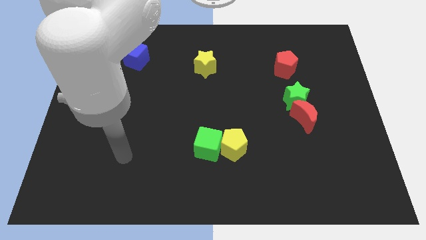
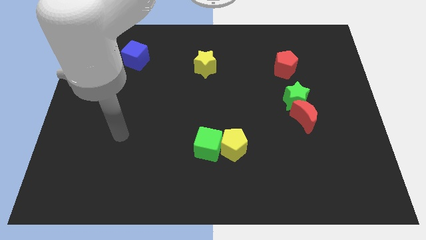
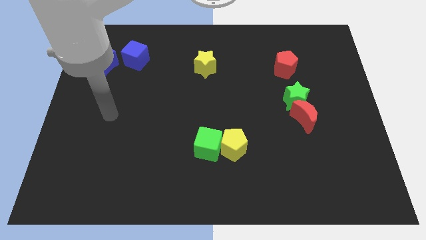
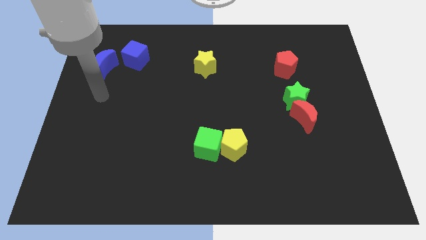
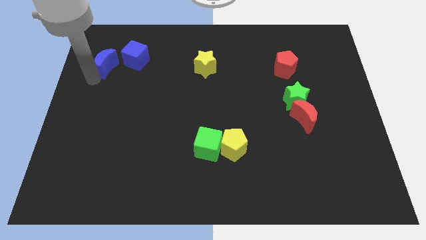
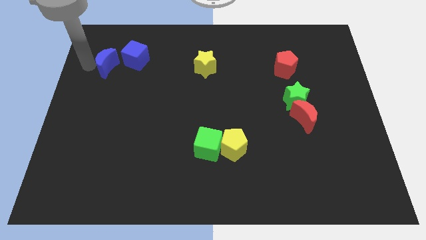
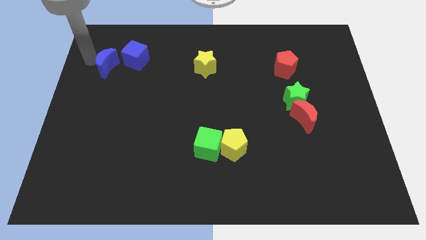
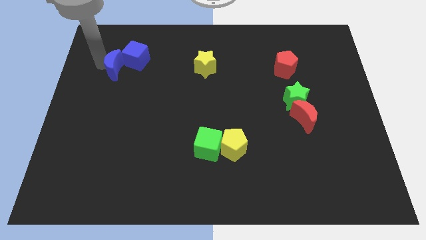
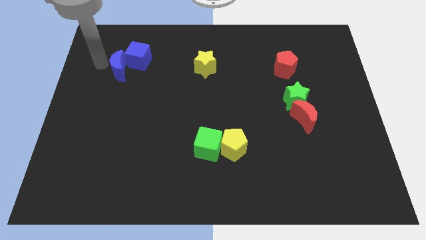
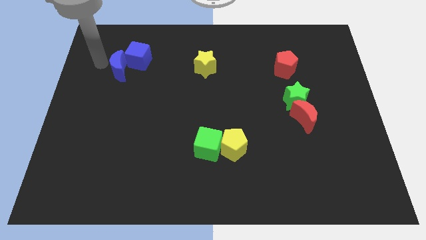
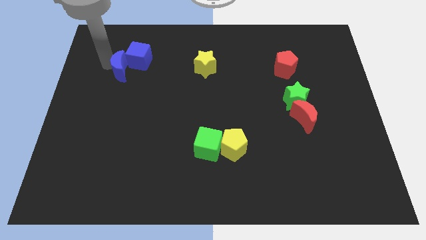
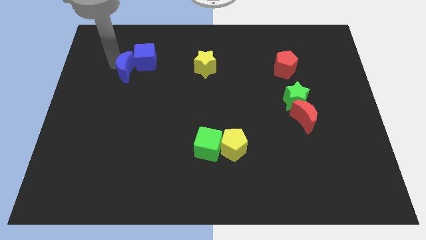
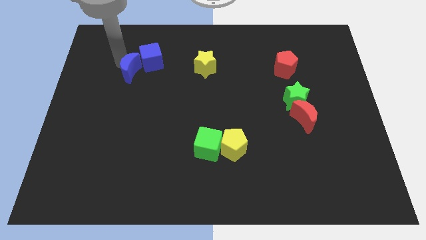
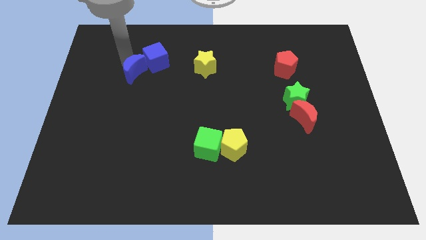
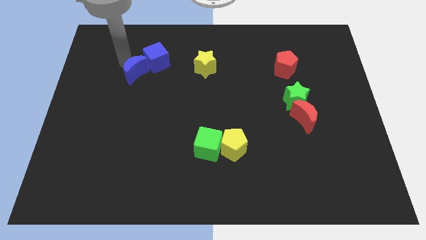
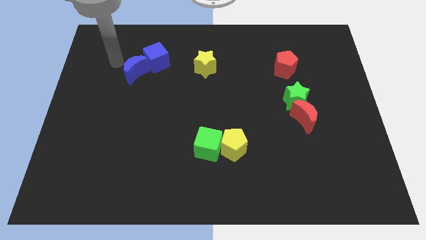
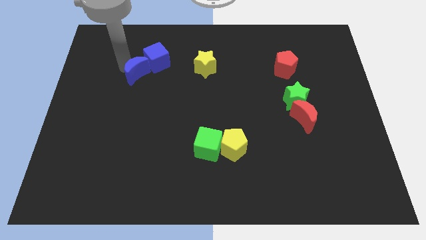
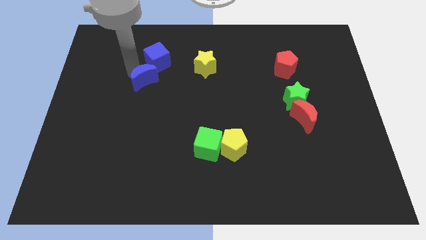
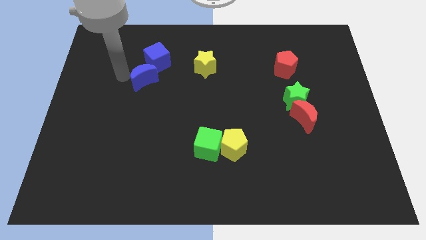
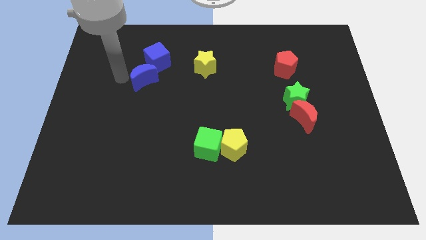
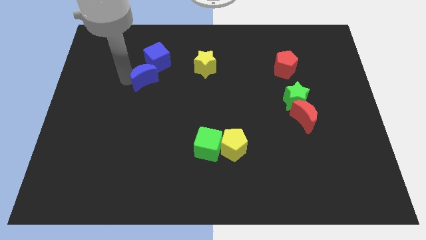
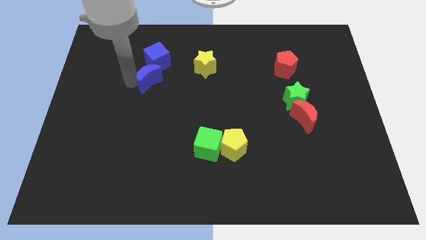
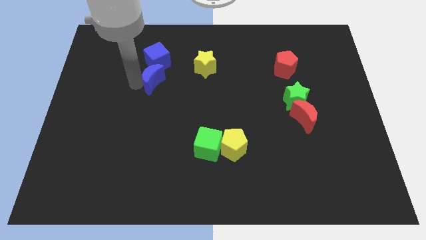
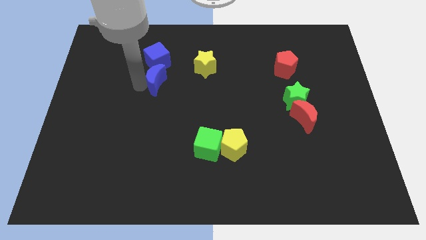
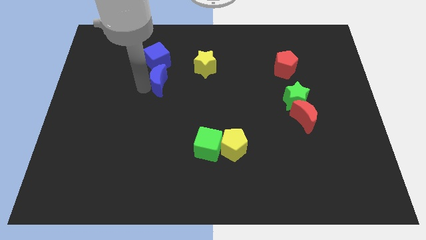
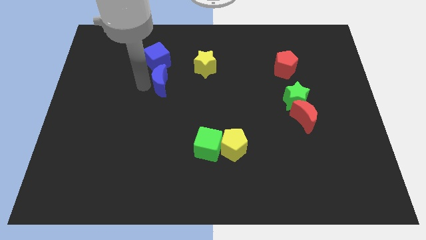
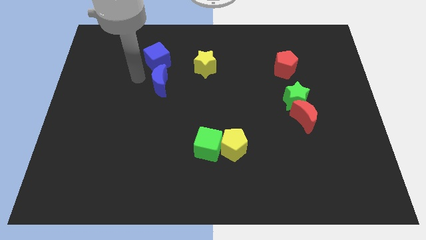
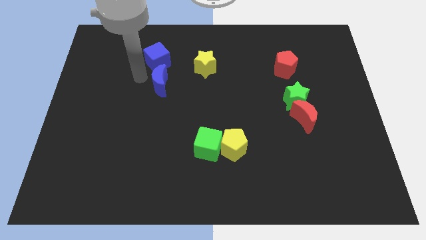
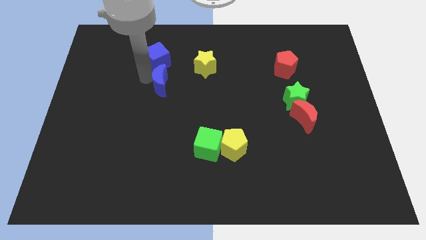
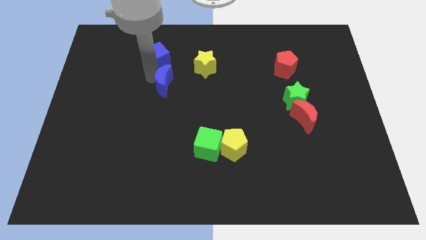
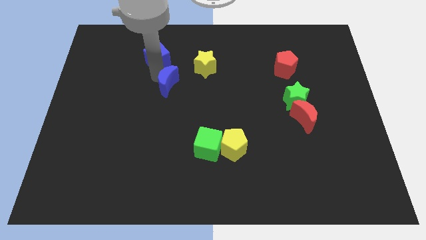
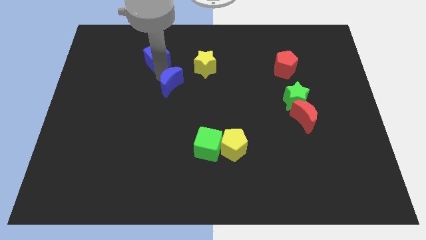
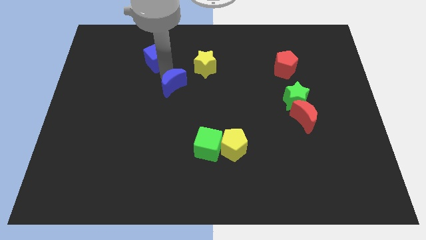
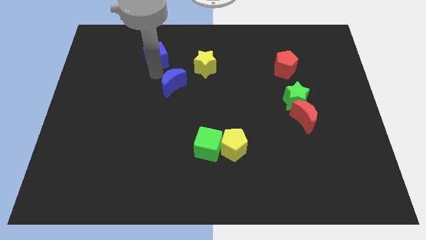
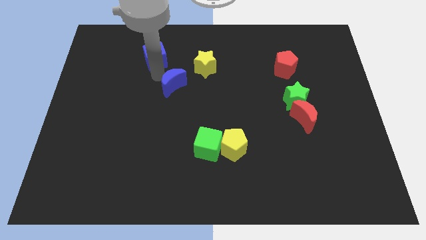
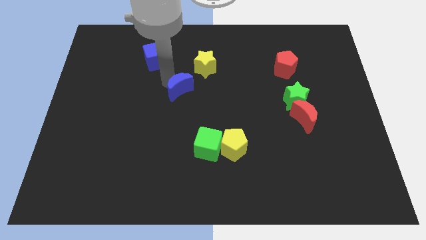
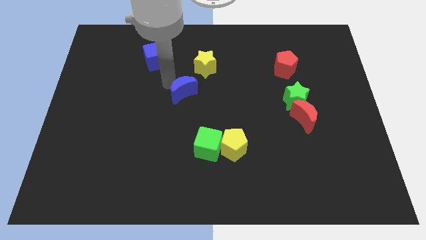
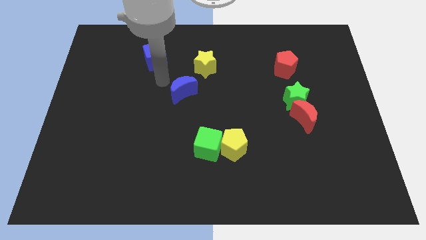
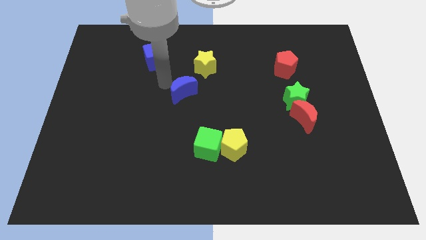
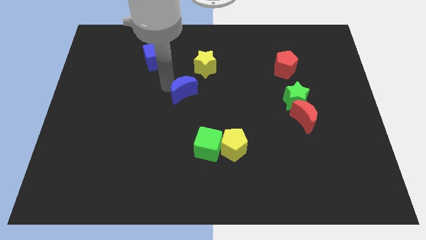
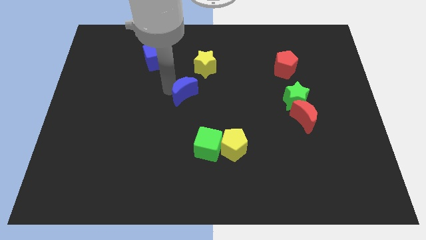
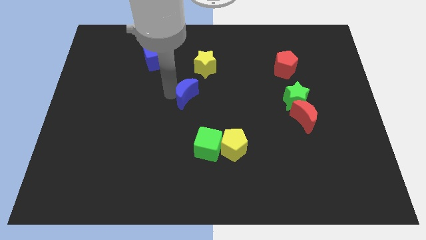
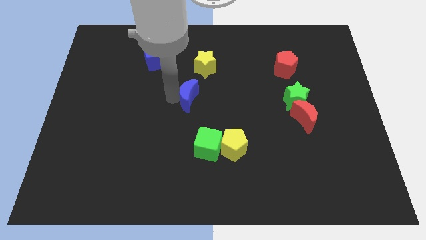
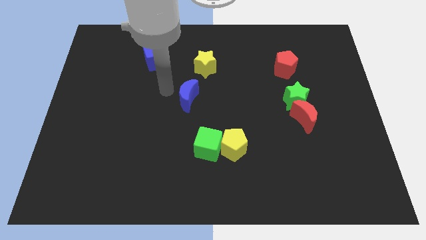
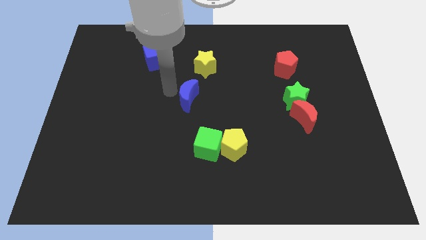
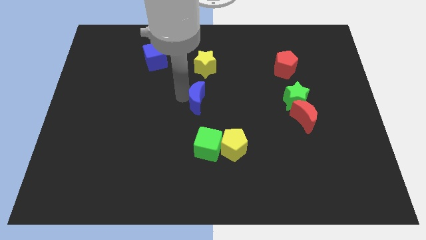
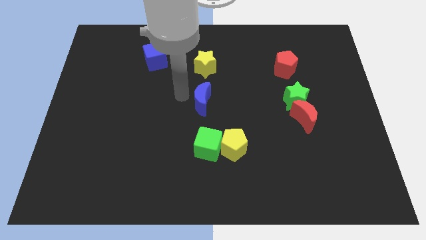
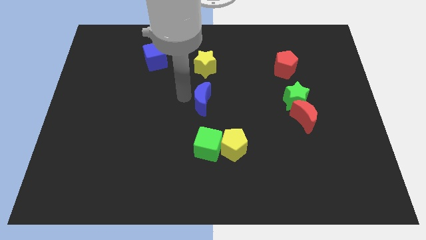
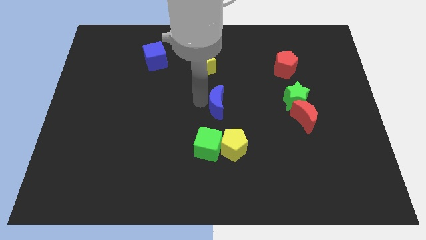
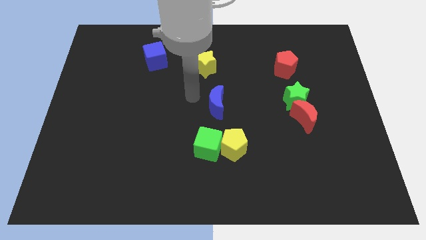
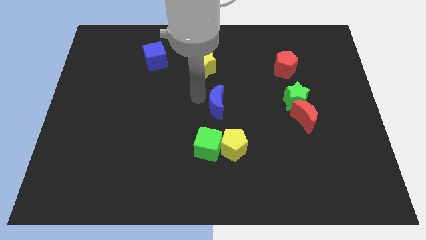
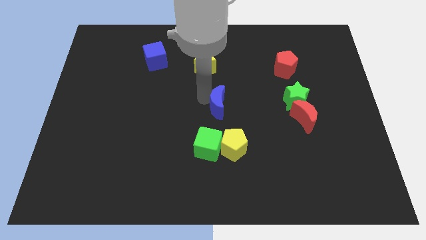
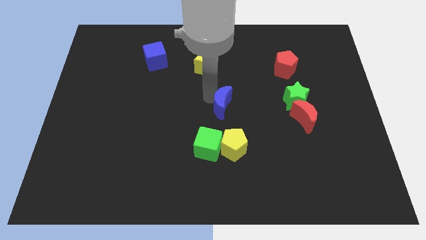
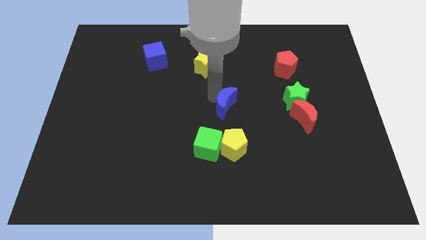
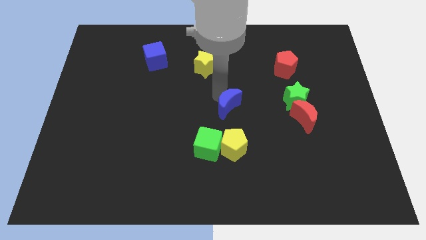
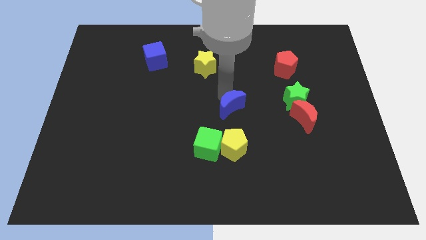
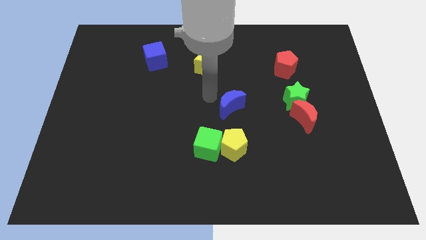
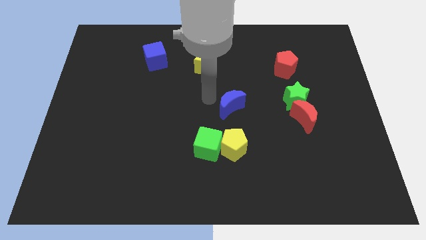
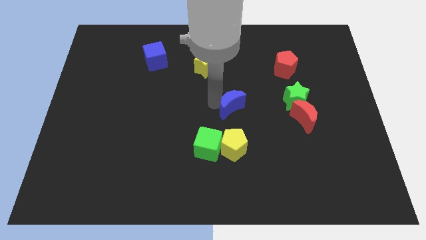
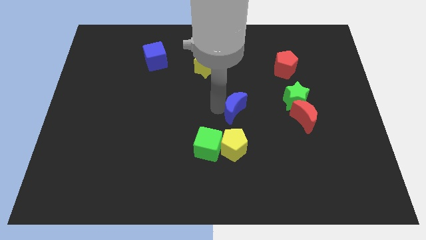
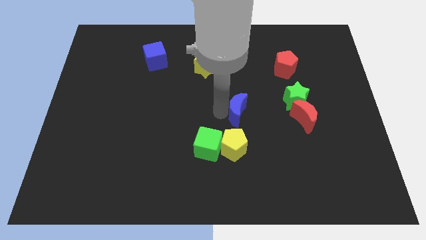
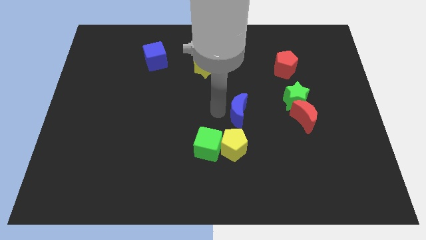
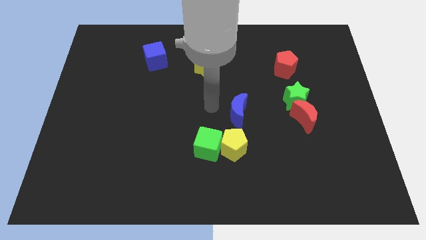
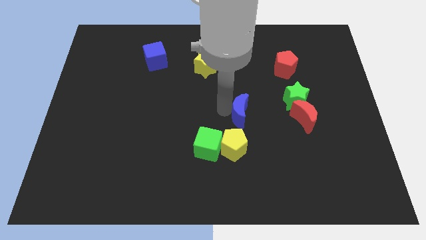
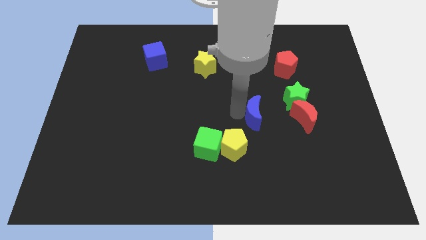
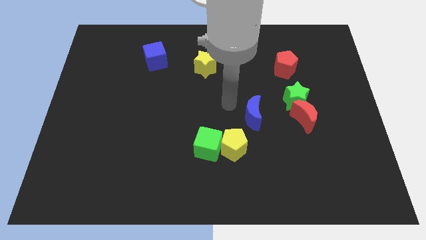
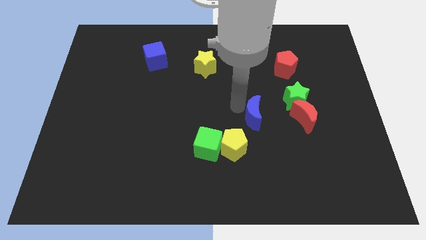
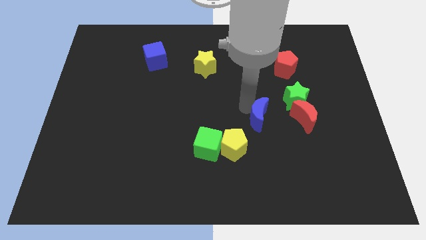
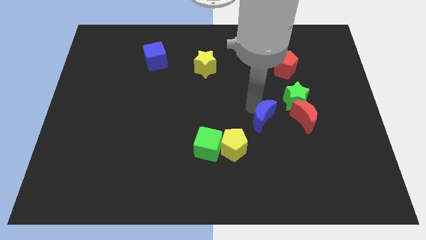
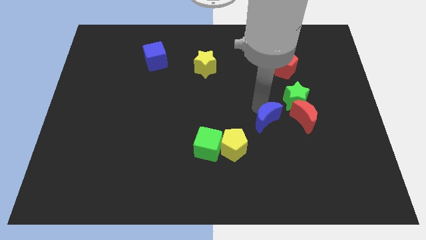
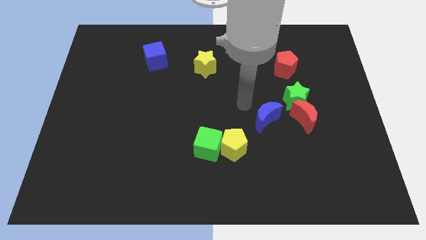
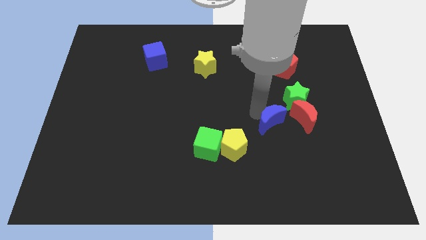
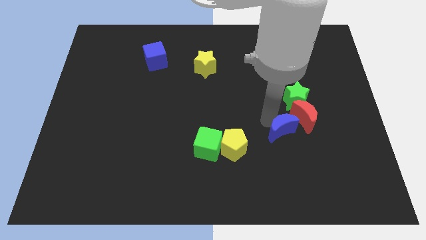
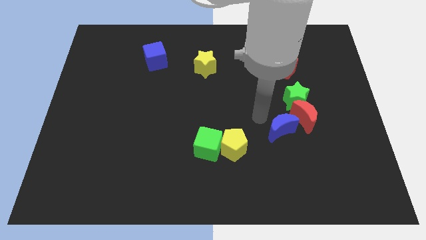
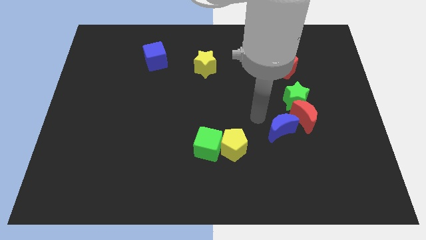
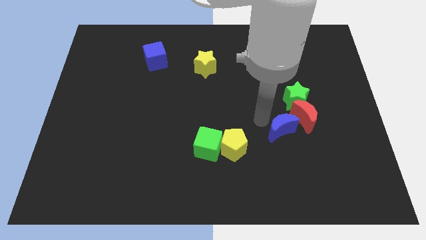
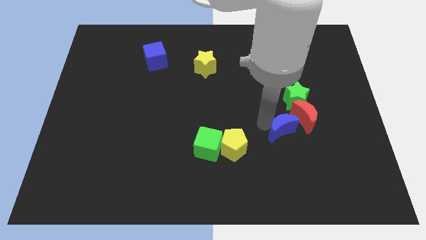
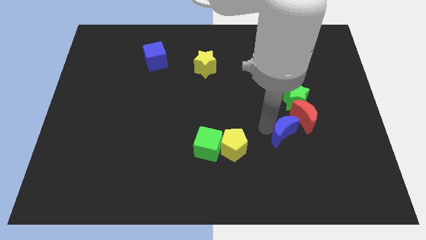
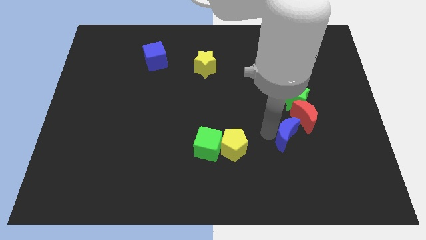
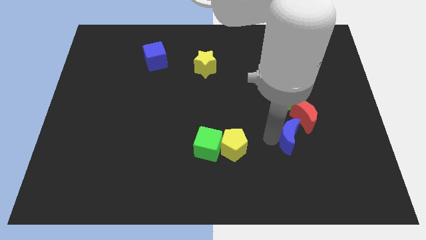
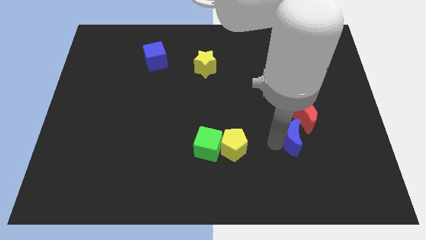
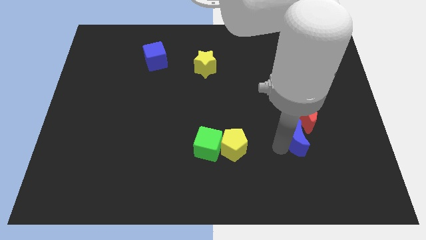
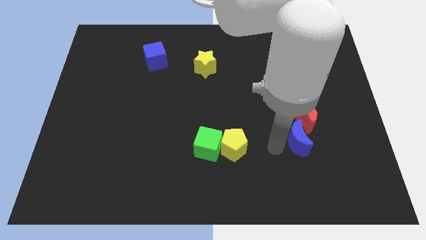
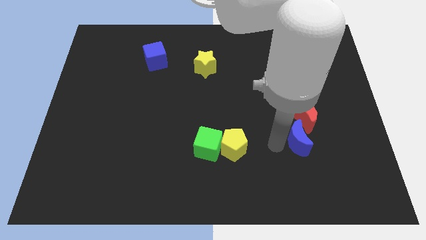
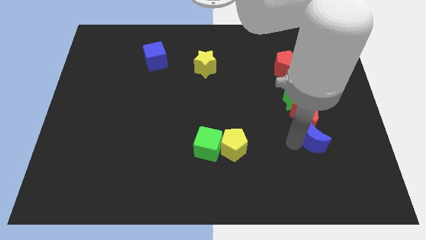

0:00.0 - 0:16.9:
slide the blue moon to the bottom right side of the red moon
